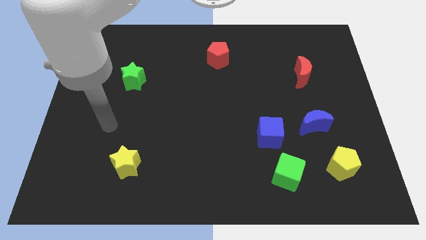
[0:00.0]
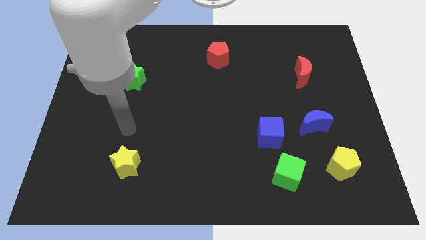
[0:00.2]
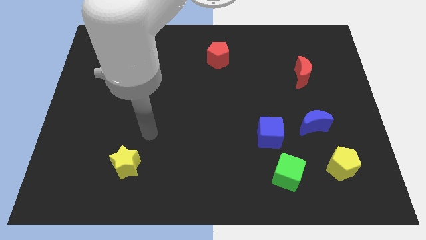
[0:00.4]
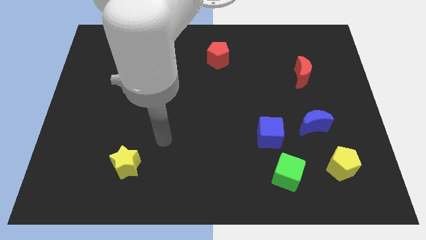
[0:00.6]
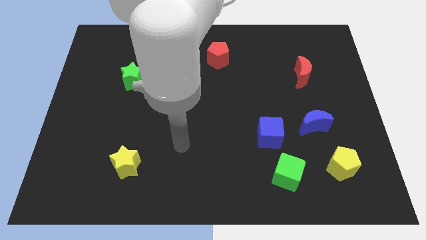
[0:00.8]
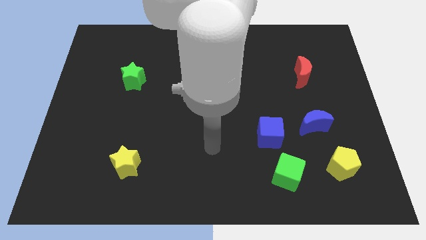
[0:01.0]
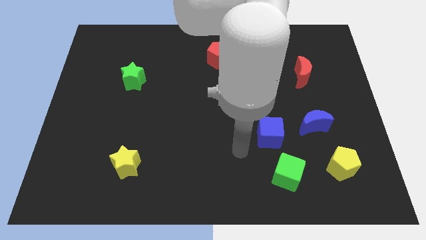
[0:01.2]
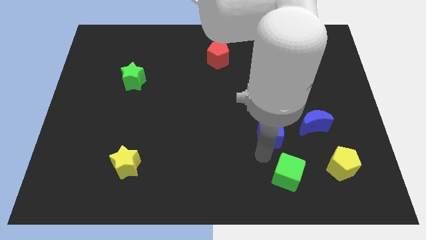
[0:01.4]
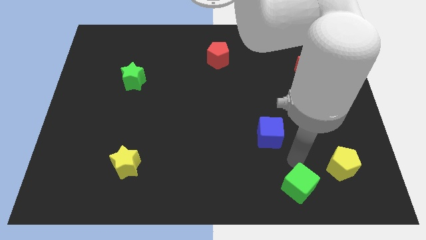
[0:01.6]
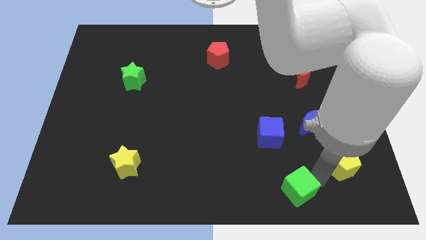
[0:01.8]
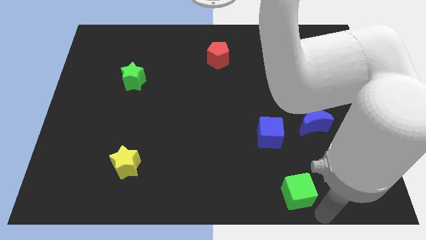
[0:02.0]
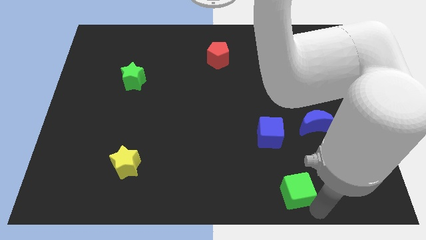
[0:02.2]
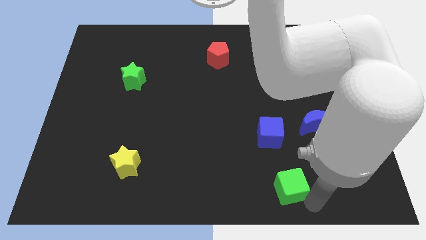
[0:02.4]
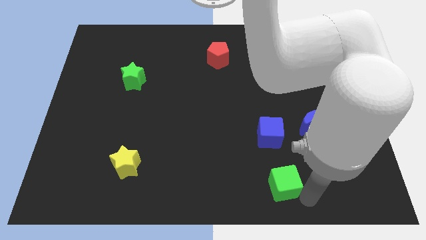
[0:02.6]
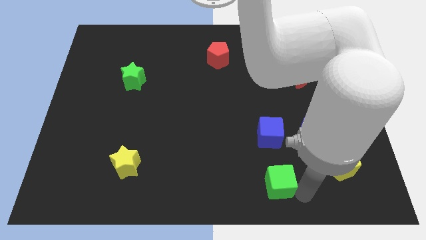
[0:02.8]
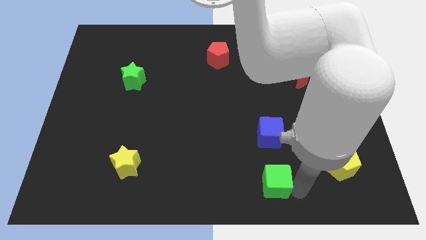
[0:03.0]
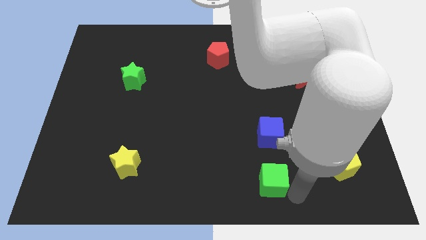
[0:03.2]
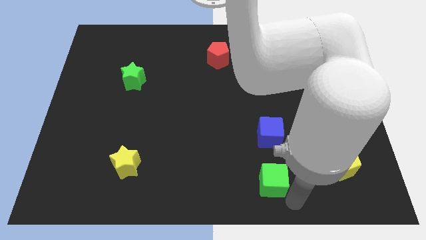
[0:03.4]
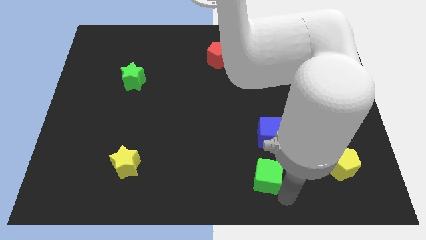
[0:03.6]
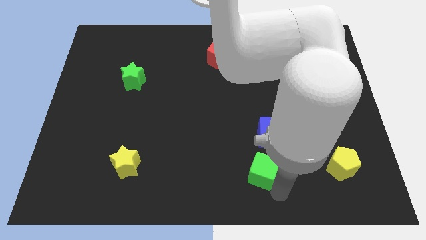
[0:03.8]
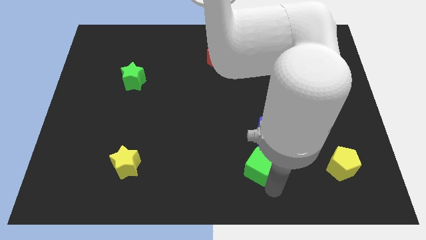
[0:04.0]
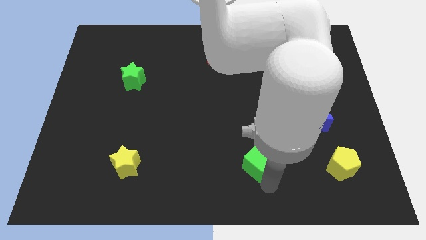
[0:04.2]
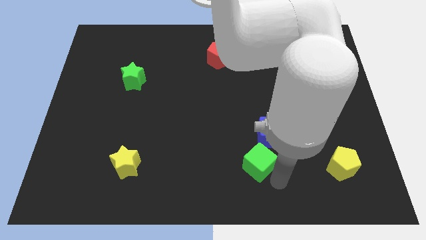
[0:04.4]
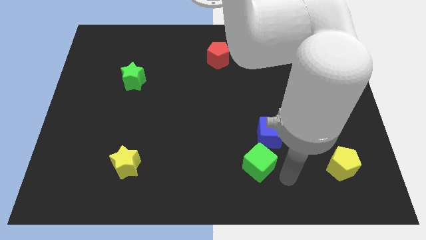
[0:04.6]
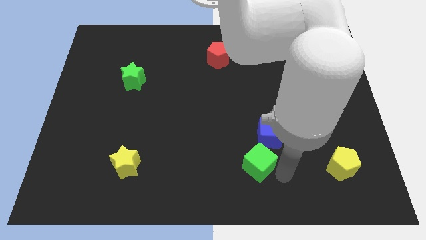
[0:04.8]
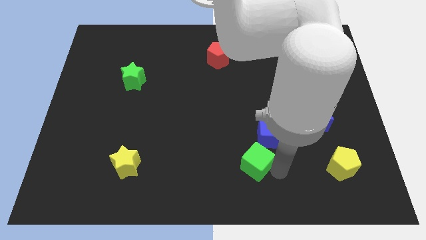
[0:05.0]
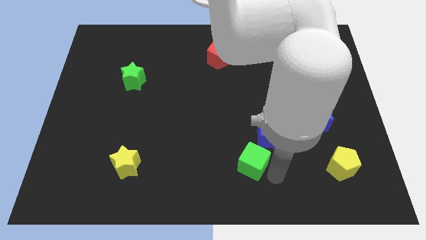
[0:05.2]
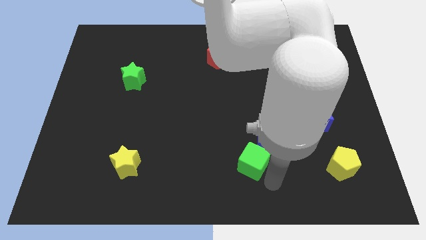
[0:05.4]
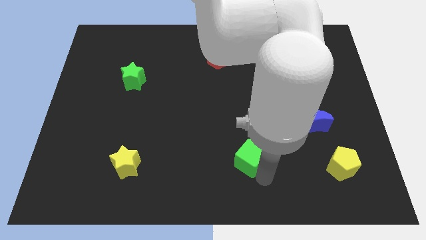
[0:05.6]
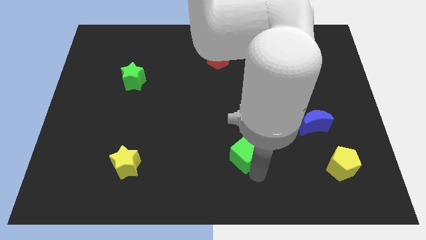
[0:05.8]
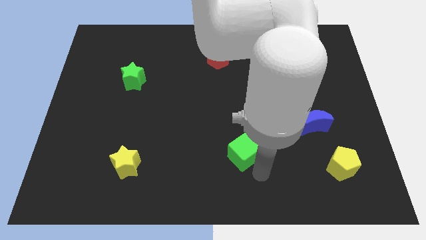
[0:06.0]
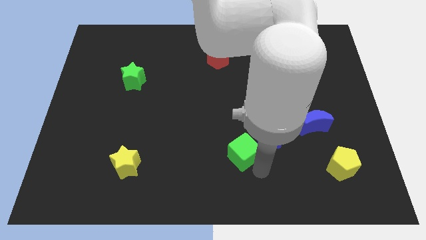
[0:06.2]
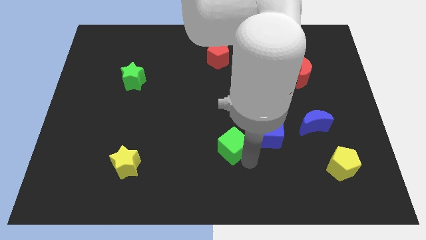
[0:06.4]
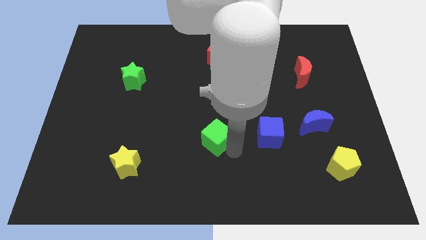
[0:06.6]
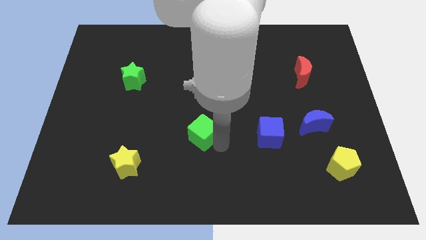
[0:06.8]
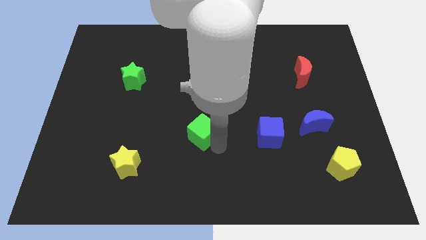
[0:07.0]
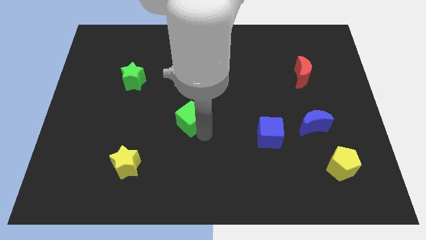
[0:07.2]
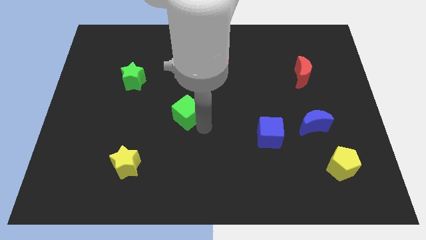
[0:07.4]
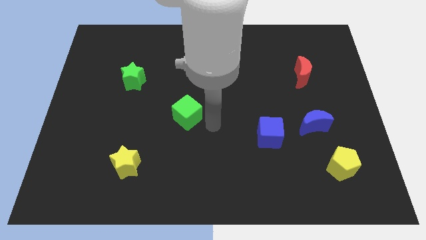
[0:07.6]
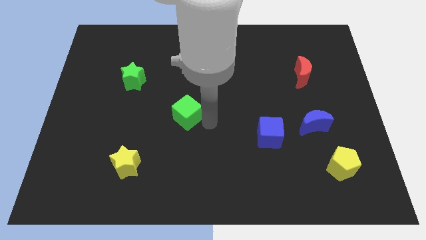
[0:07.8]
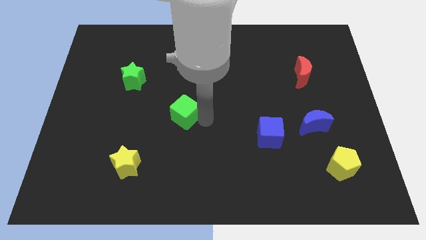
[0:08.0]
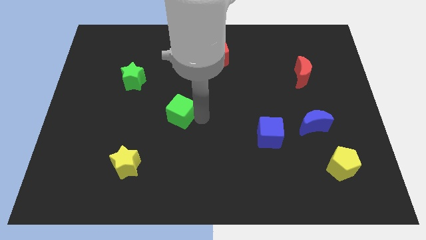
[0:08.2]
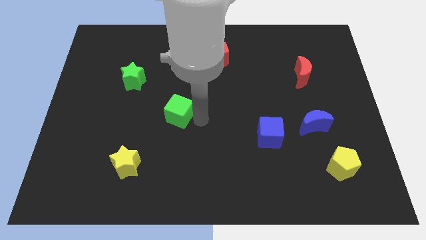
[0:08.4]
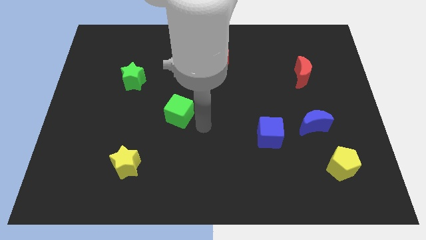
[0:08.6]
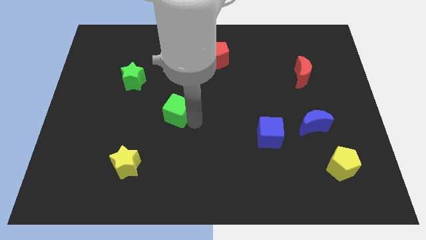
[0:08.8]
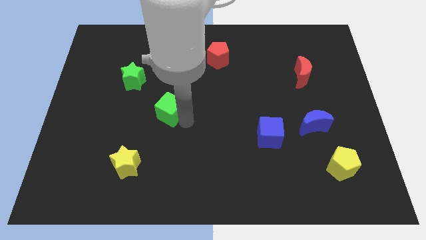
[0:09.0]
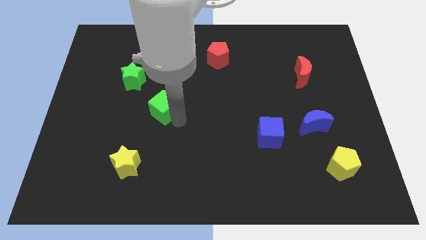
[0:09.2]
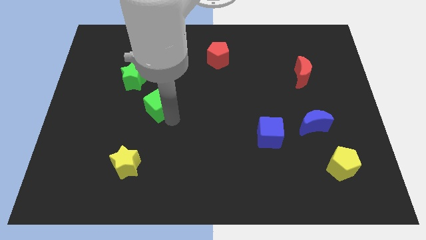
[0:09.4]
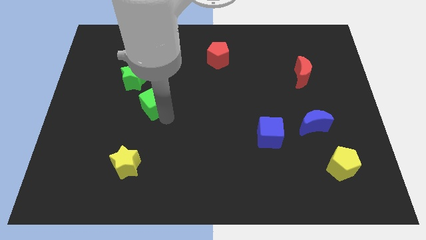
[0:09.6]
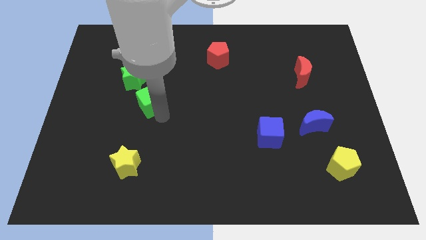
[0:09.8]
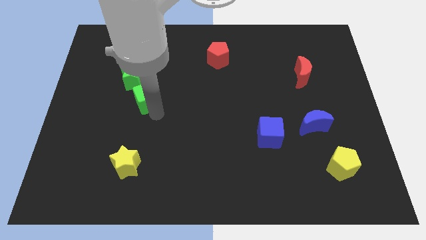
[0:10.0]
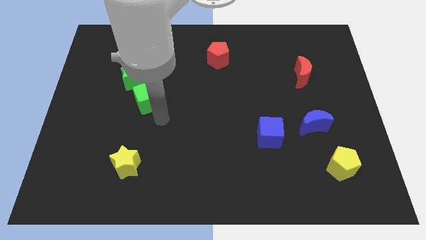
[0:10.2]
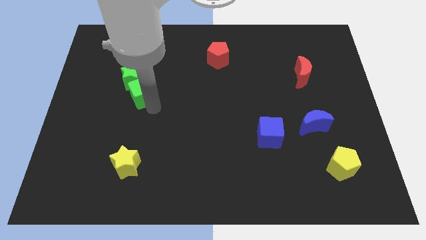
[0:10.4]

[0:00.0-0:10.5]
put the green cube close to the green star

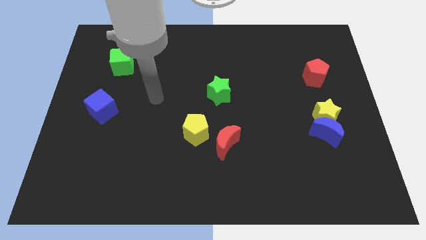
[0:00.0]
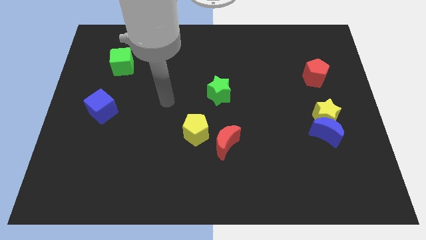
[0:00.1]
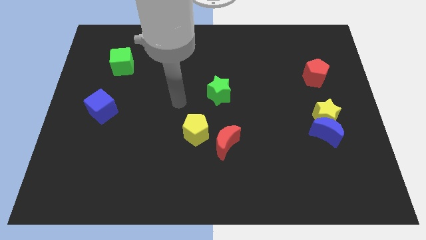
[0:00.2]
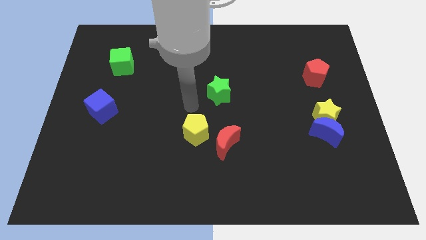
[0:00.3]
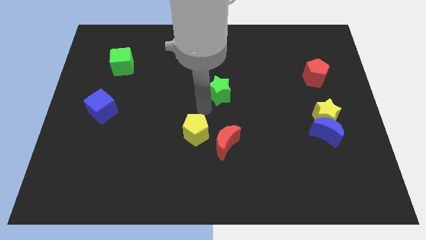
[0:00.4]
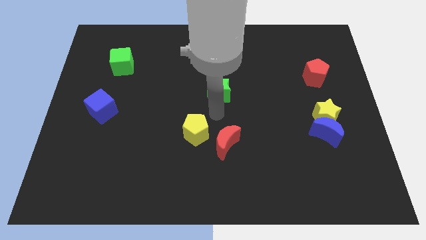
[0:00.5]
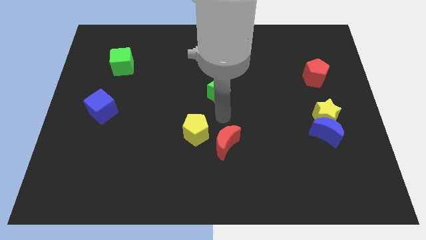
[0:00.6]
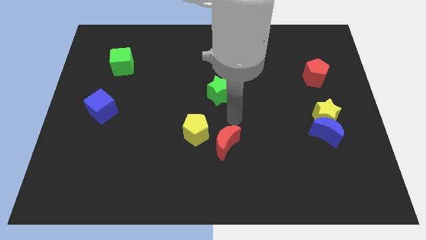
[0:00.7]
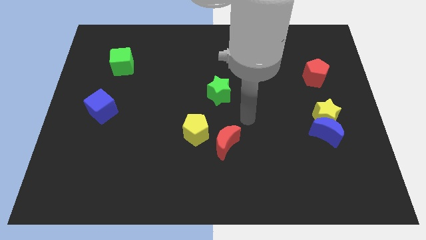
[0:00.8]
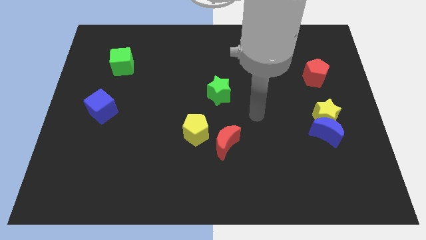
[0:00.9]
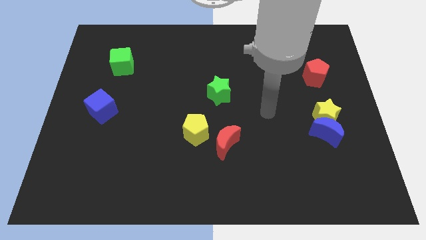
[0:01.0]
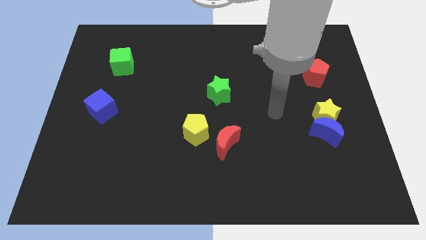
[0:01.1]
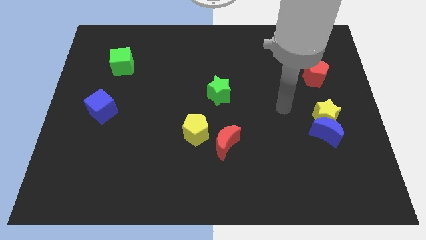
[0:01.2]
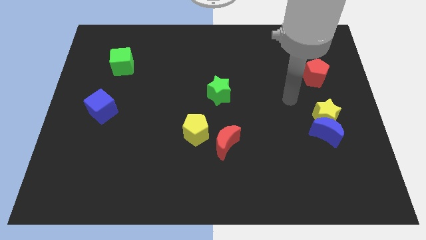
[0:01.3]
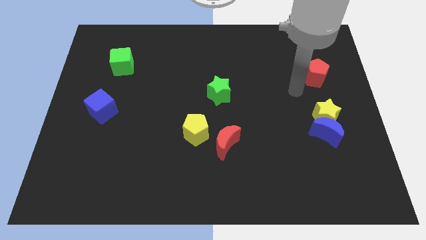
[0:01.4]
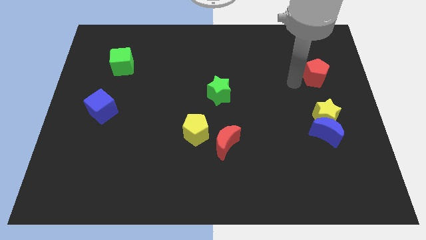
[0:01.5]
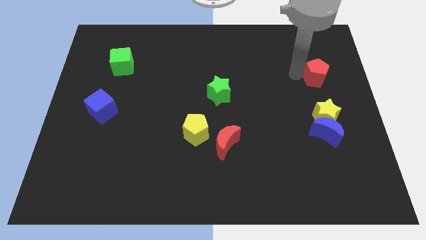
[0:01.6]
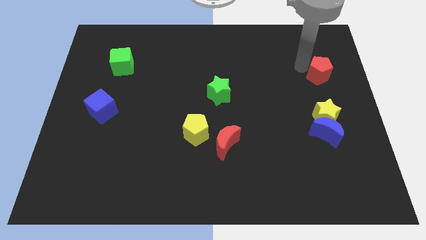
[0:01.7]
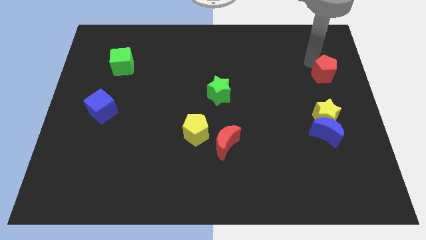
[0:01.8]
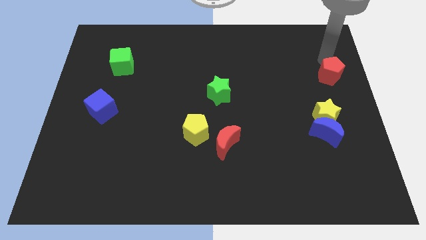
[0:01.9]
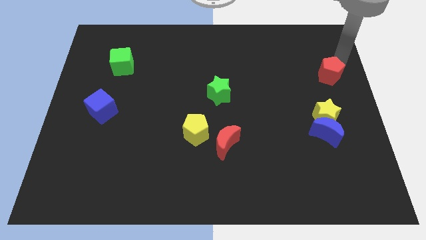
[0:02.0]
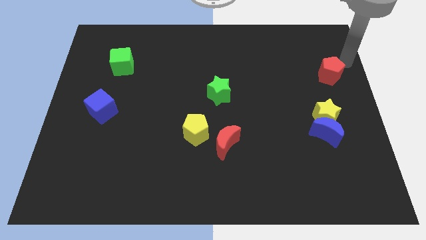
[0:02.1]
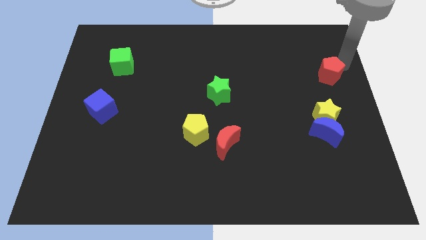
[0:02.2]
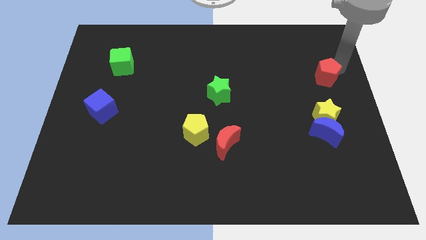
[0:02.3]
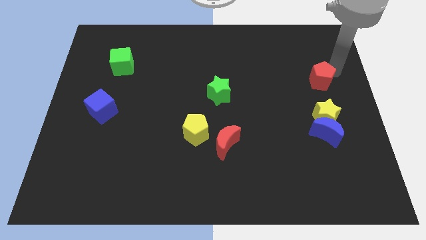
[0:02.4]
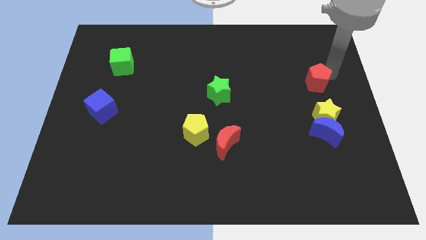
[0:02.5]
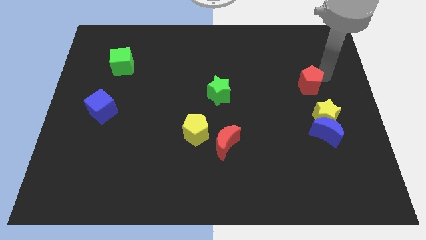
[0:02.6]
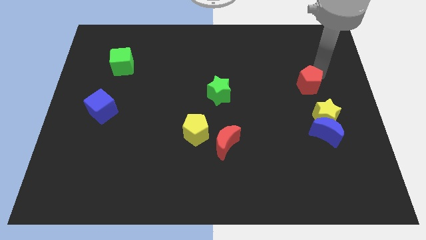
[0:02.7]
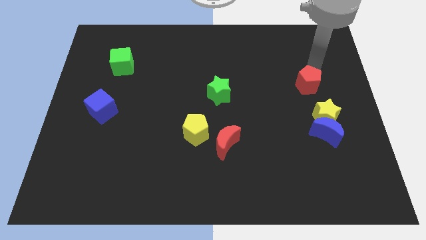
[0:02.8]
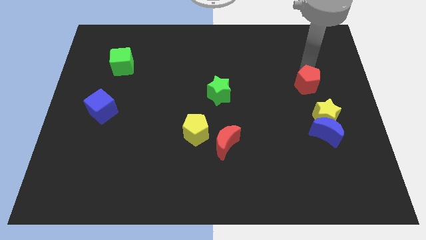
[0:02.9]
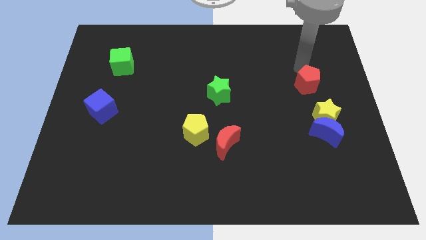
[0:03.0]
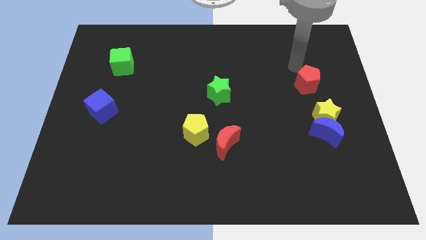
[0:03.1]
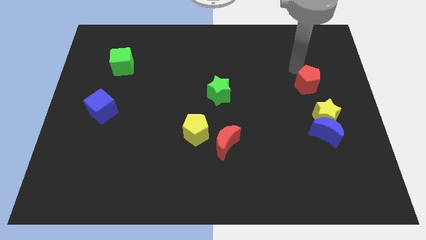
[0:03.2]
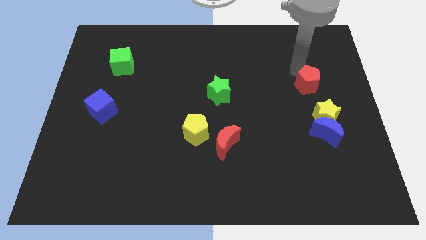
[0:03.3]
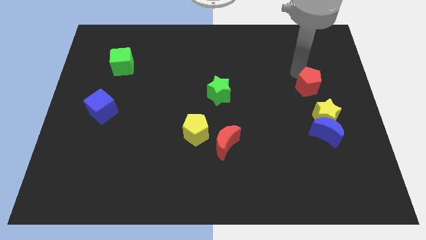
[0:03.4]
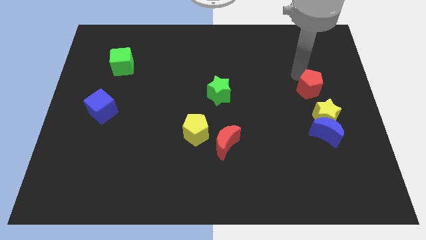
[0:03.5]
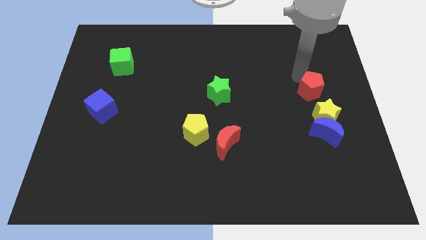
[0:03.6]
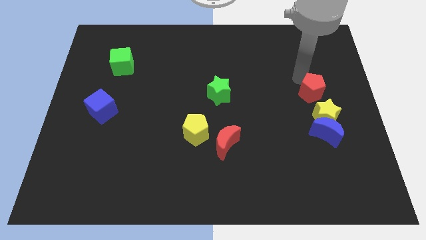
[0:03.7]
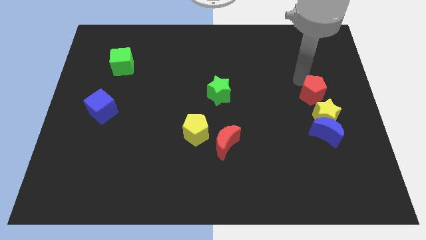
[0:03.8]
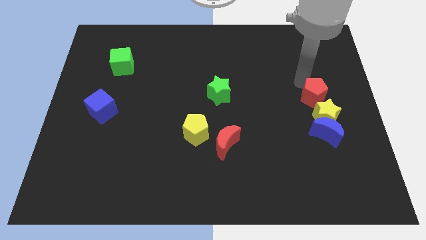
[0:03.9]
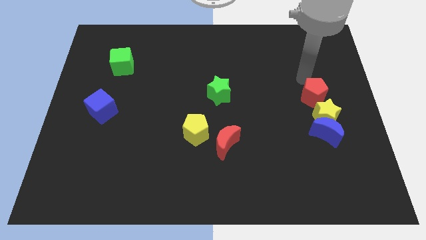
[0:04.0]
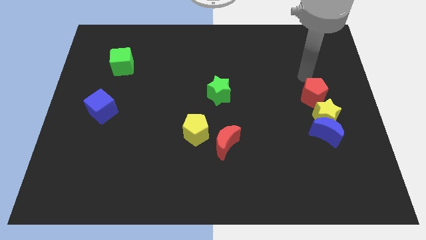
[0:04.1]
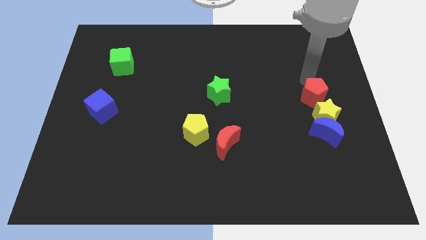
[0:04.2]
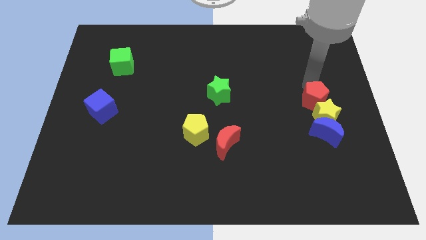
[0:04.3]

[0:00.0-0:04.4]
put the red pentagon close to the yellow star
